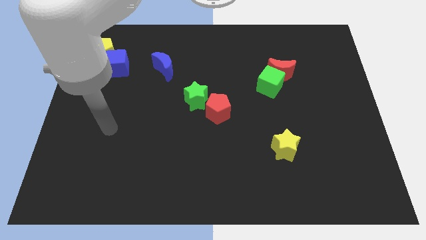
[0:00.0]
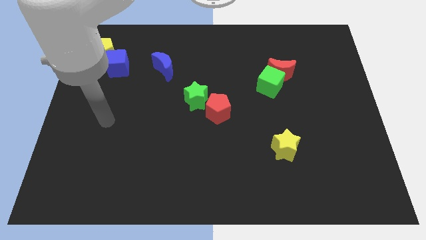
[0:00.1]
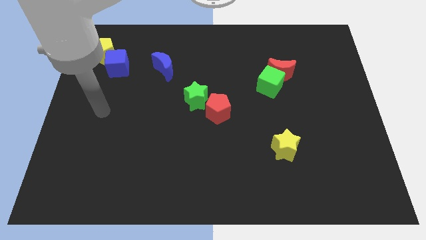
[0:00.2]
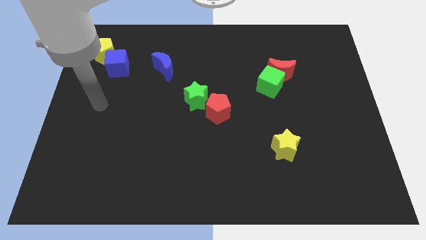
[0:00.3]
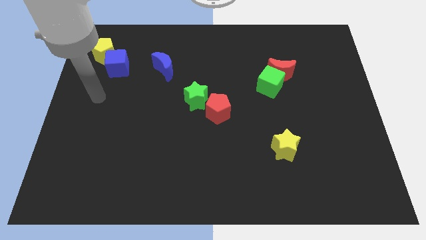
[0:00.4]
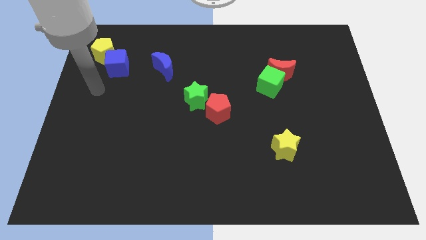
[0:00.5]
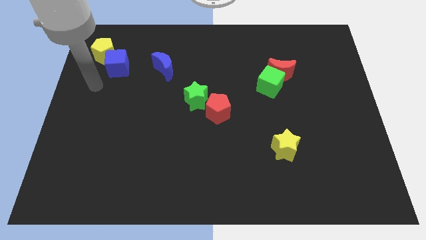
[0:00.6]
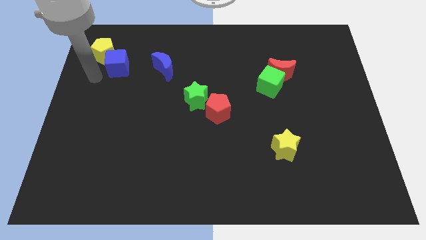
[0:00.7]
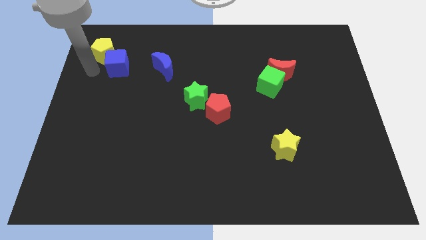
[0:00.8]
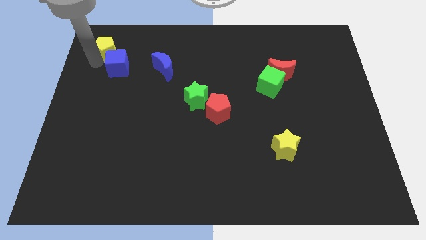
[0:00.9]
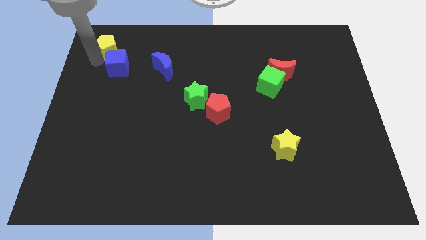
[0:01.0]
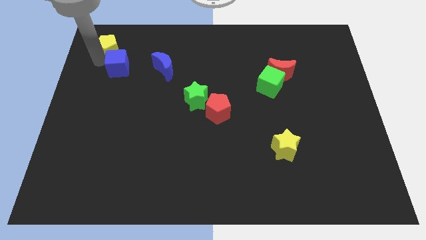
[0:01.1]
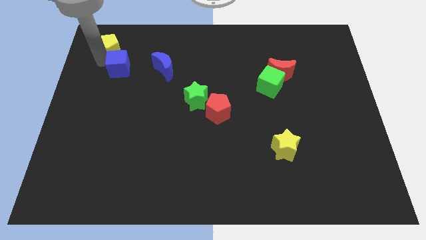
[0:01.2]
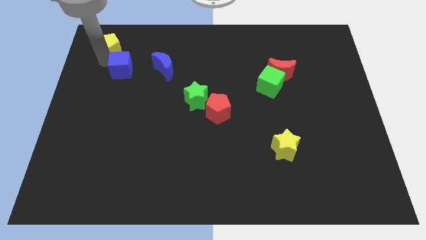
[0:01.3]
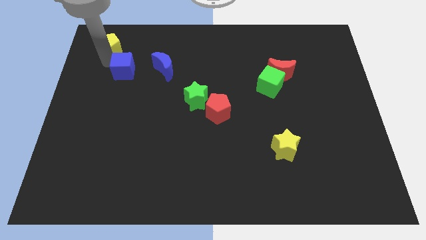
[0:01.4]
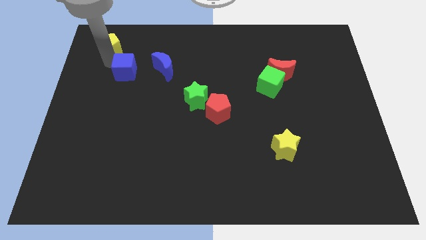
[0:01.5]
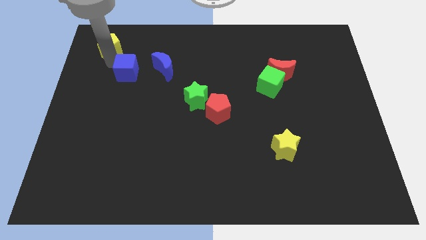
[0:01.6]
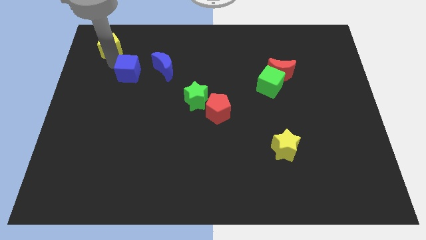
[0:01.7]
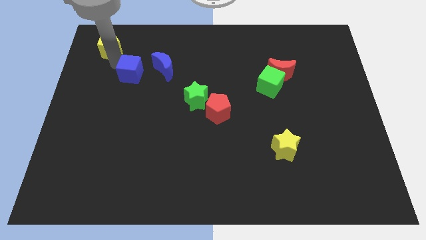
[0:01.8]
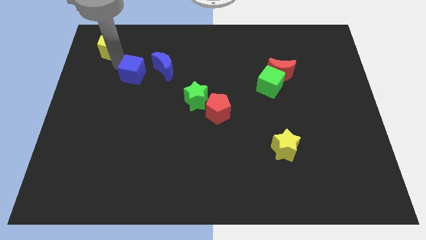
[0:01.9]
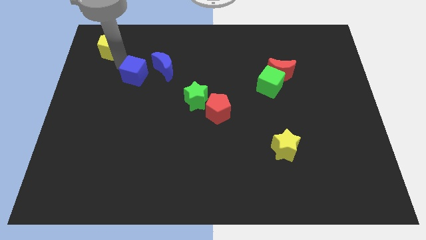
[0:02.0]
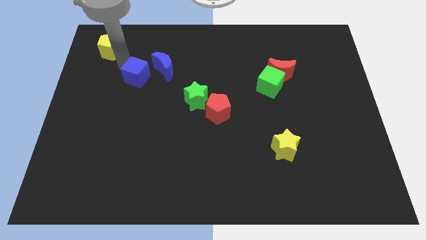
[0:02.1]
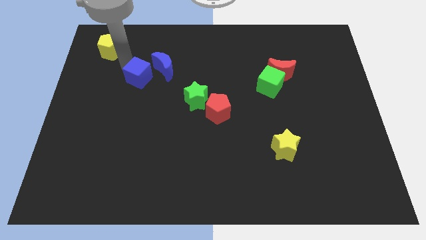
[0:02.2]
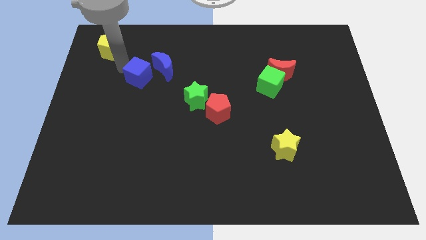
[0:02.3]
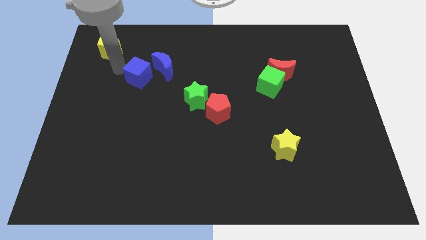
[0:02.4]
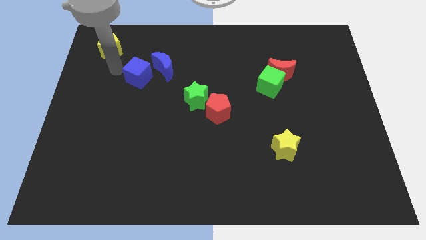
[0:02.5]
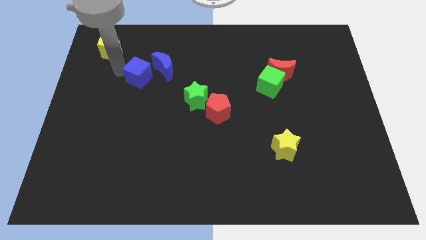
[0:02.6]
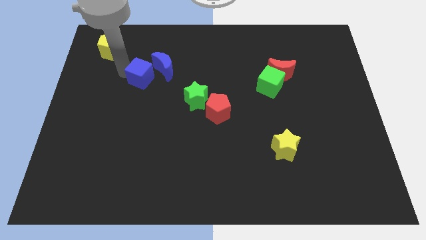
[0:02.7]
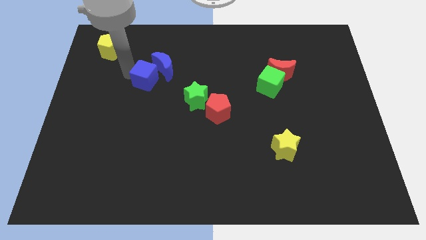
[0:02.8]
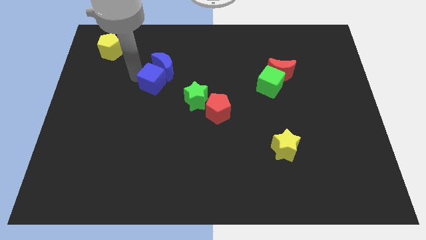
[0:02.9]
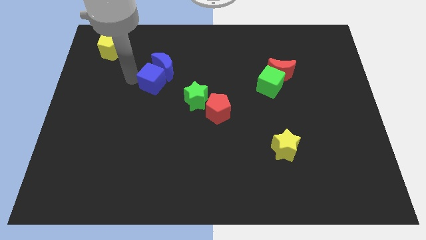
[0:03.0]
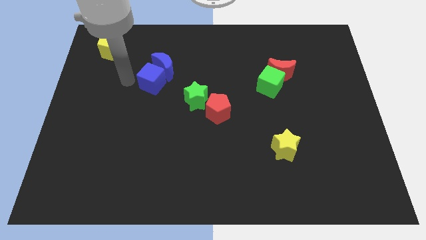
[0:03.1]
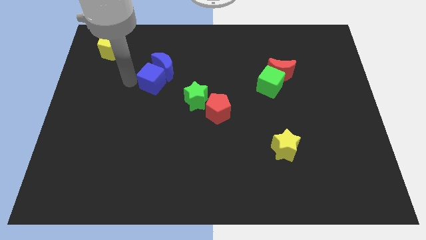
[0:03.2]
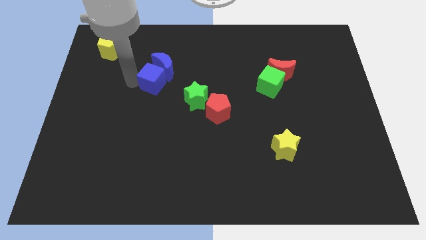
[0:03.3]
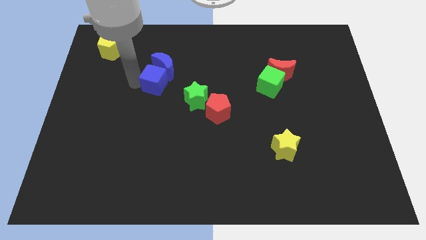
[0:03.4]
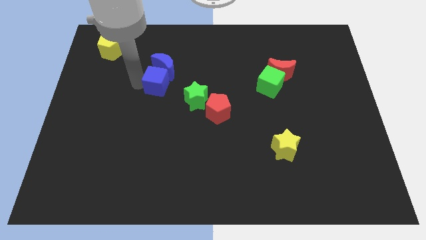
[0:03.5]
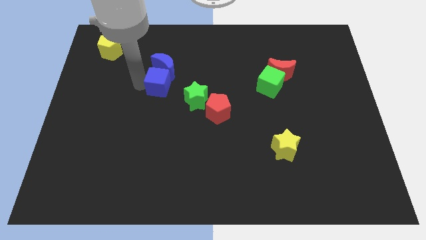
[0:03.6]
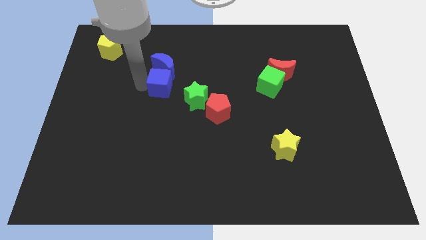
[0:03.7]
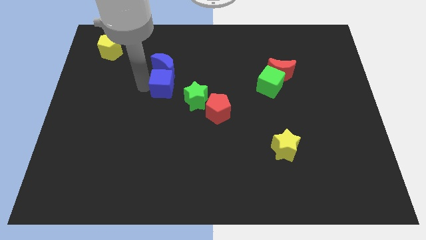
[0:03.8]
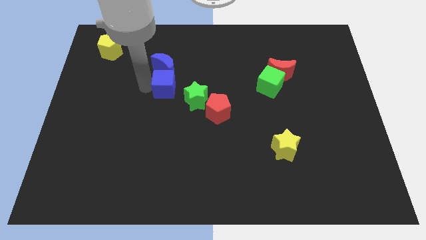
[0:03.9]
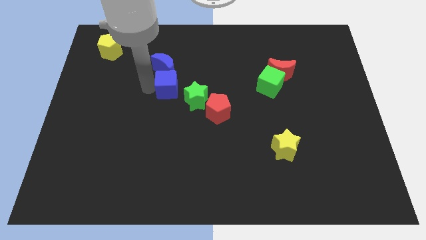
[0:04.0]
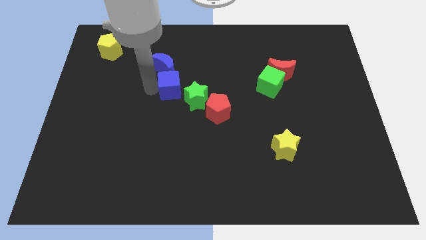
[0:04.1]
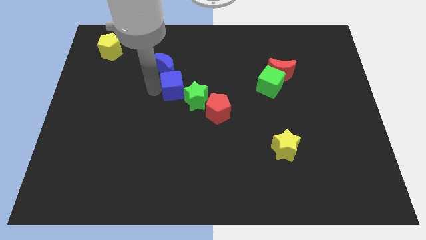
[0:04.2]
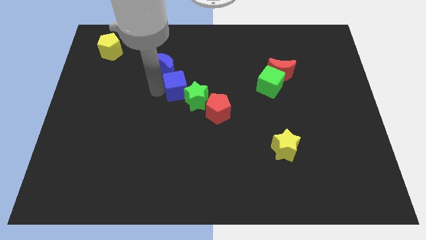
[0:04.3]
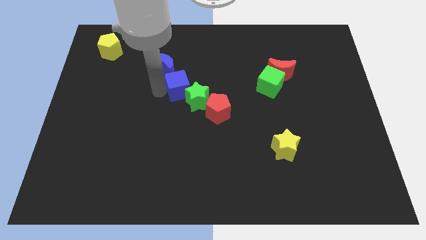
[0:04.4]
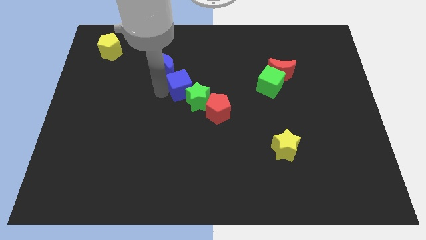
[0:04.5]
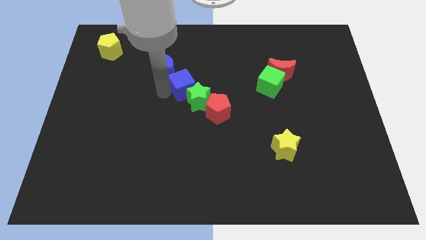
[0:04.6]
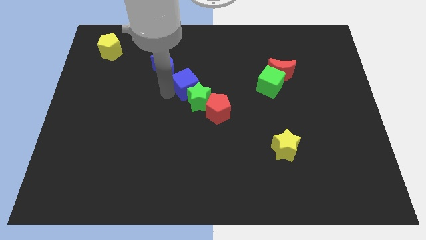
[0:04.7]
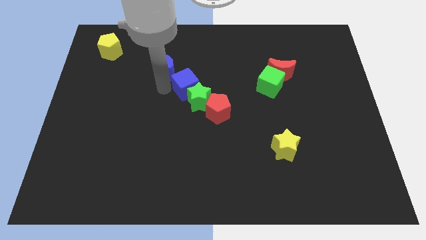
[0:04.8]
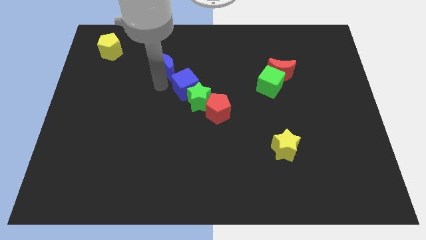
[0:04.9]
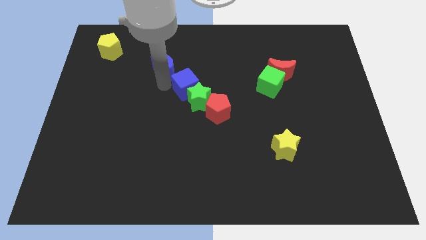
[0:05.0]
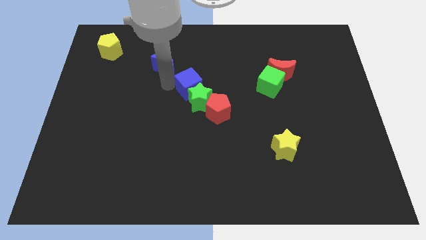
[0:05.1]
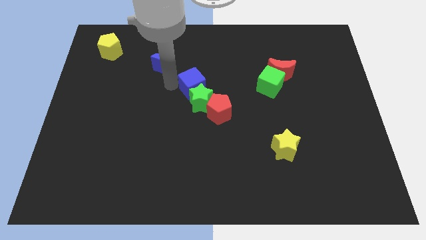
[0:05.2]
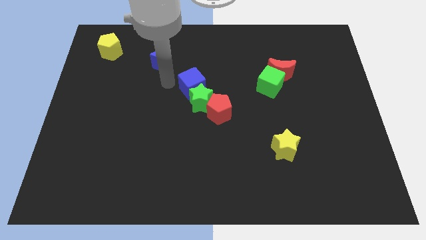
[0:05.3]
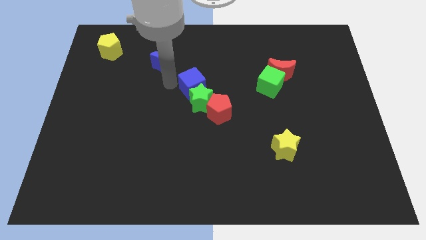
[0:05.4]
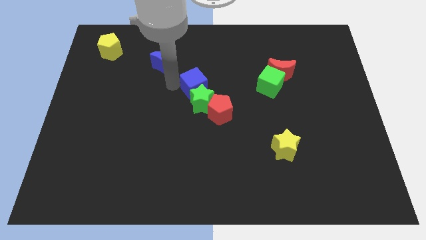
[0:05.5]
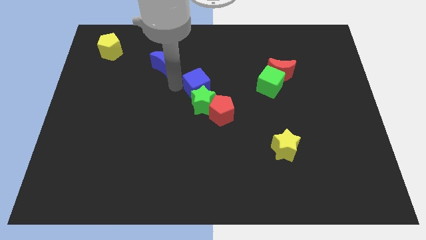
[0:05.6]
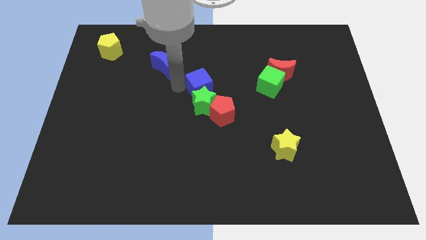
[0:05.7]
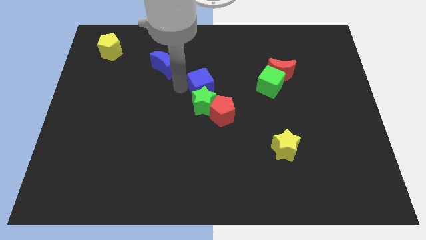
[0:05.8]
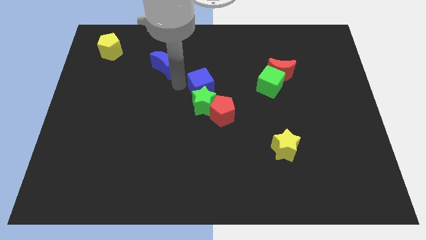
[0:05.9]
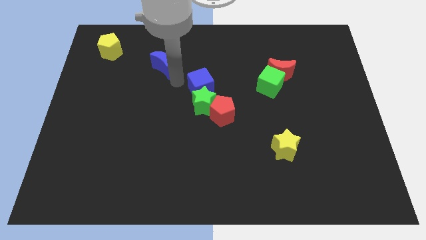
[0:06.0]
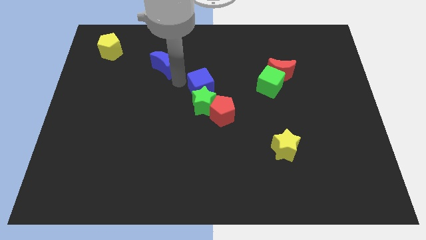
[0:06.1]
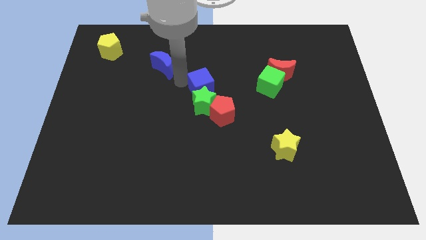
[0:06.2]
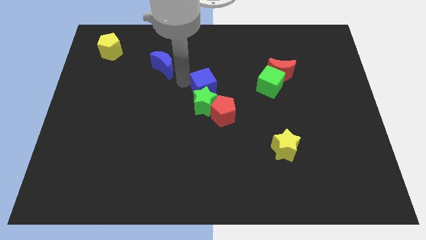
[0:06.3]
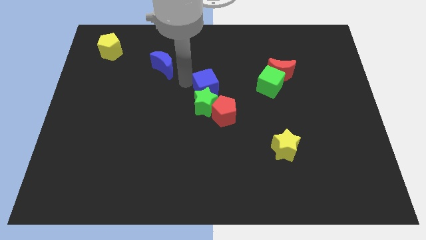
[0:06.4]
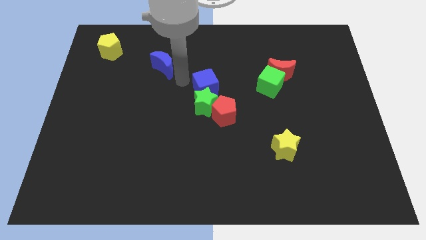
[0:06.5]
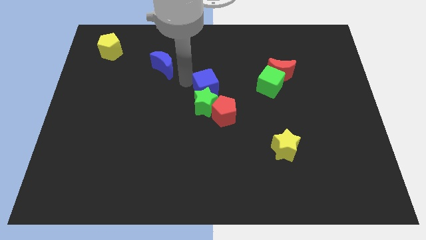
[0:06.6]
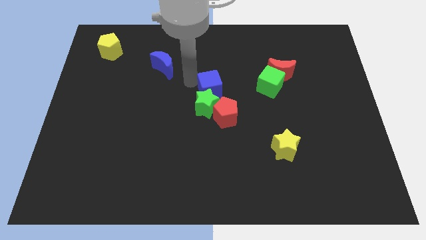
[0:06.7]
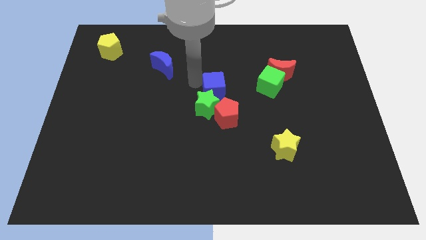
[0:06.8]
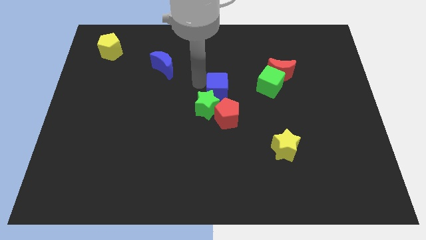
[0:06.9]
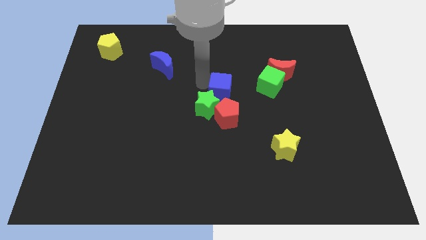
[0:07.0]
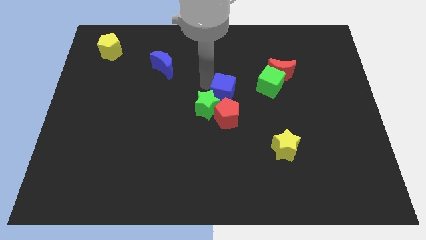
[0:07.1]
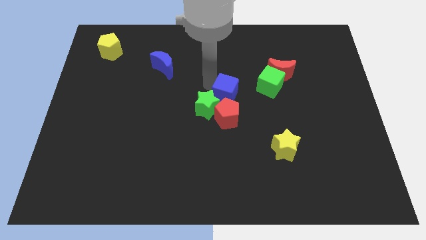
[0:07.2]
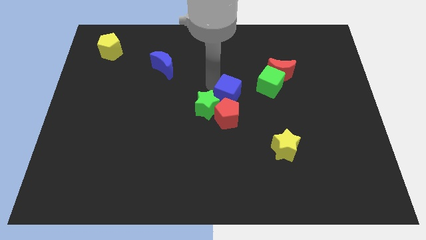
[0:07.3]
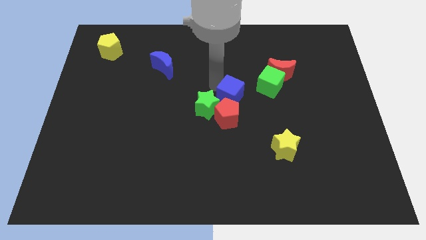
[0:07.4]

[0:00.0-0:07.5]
push the blue cube to the bottom left of the green cube
